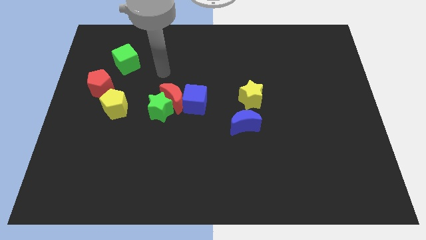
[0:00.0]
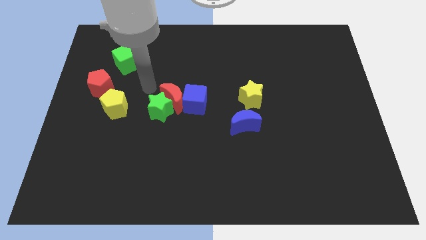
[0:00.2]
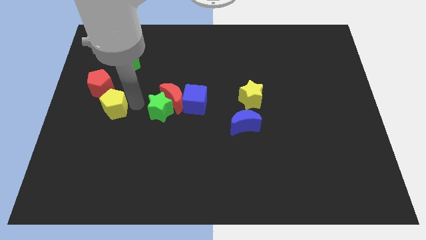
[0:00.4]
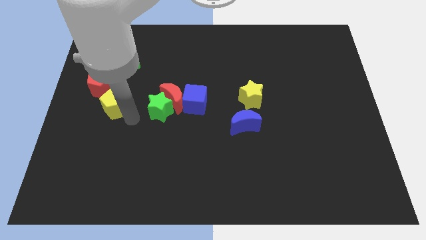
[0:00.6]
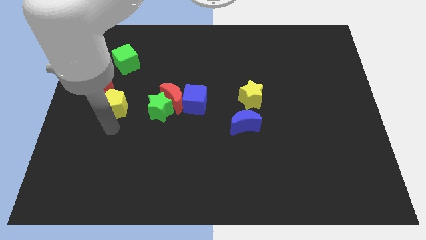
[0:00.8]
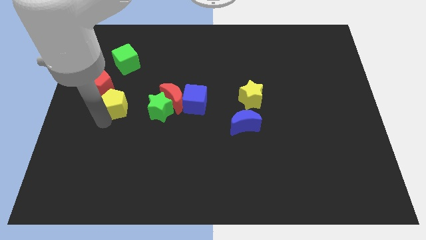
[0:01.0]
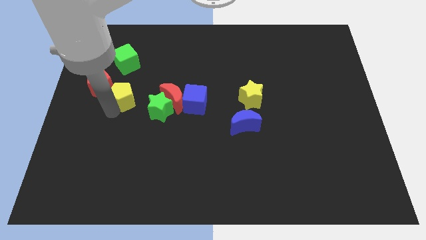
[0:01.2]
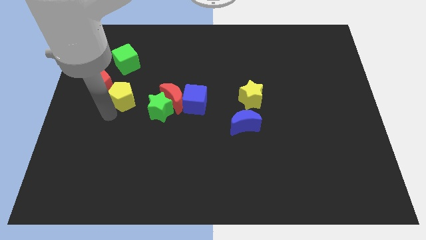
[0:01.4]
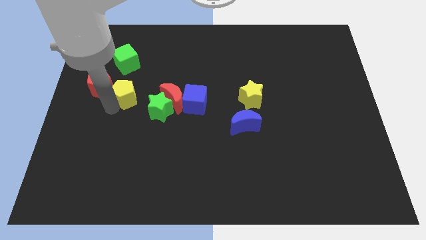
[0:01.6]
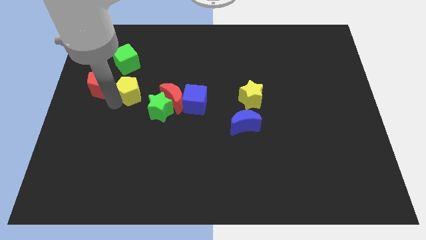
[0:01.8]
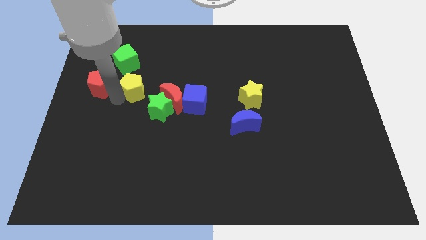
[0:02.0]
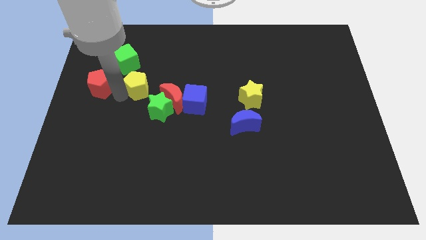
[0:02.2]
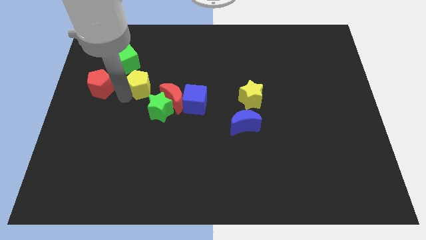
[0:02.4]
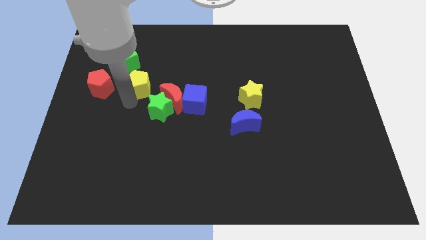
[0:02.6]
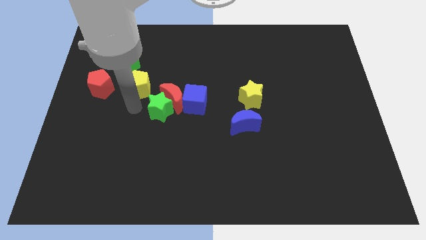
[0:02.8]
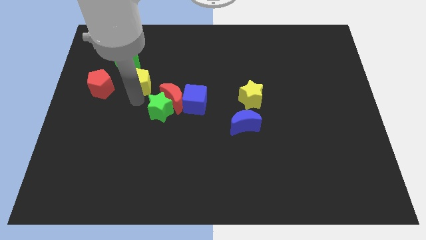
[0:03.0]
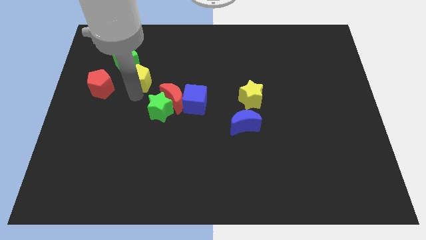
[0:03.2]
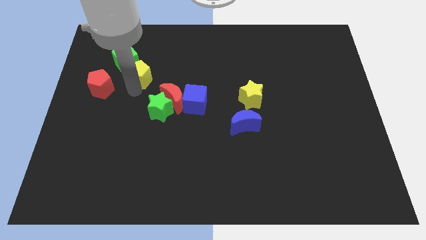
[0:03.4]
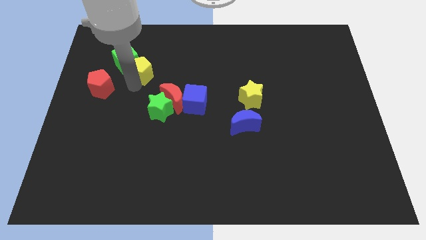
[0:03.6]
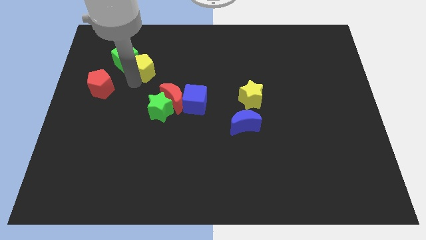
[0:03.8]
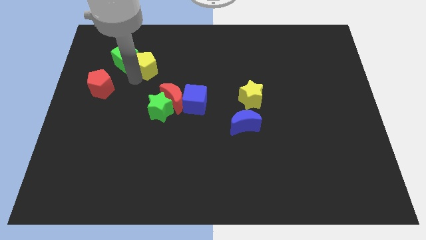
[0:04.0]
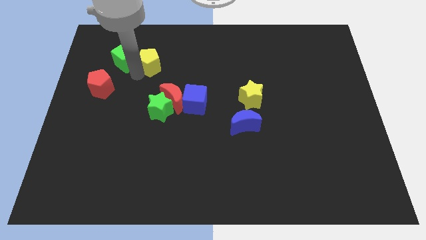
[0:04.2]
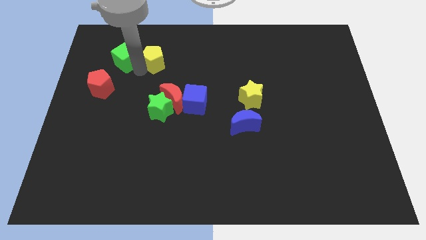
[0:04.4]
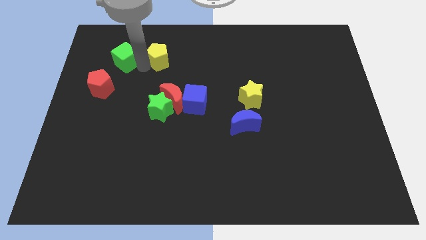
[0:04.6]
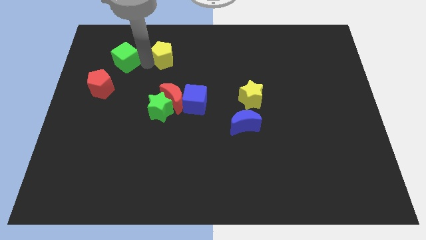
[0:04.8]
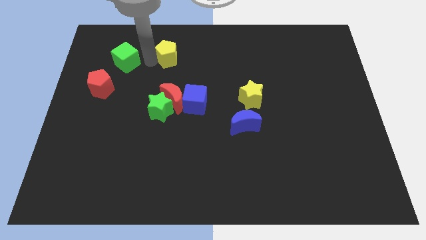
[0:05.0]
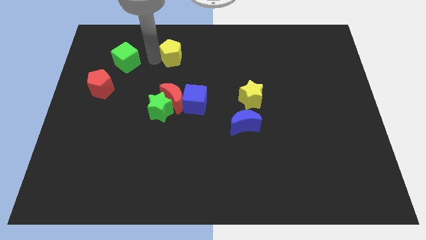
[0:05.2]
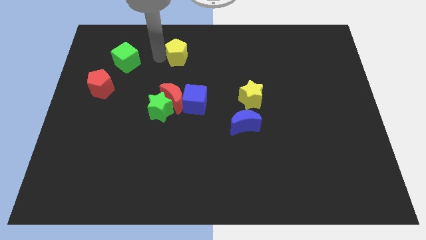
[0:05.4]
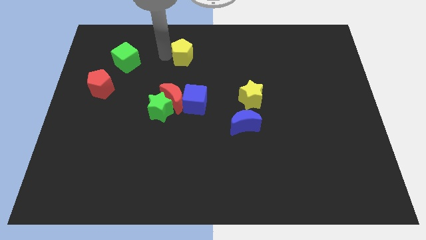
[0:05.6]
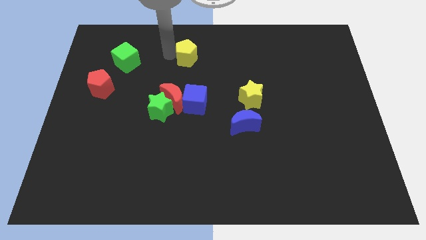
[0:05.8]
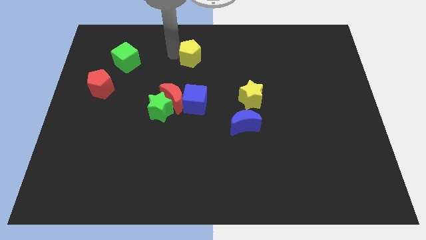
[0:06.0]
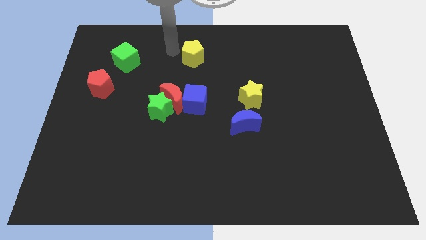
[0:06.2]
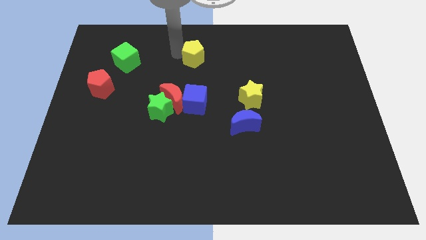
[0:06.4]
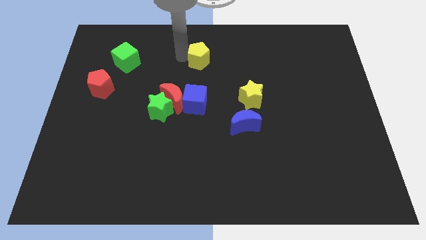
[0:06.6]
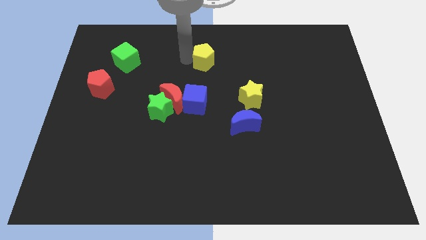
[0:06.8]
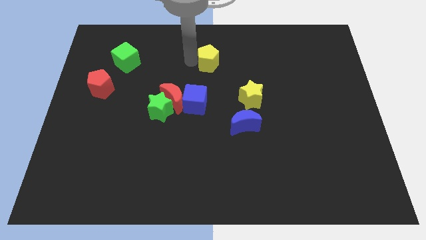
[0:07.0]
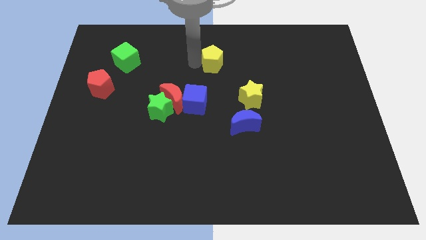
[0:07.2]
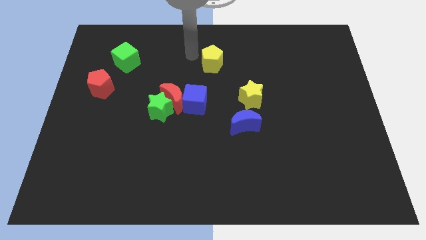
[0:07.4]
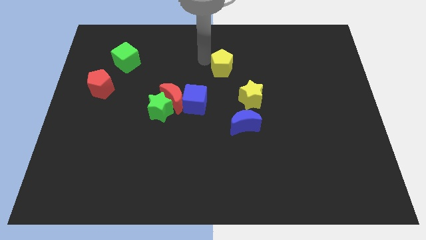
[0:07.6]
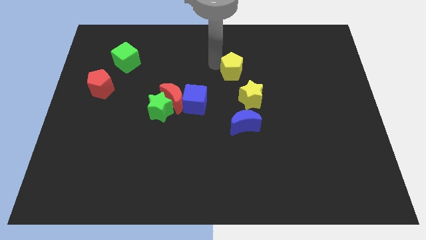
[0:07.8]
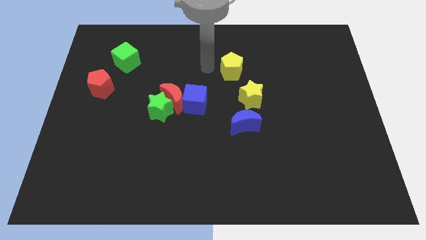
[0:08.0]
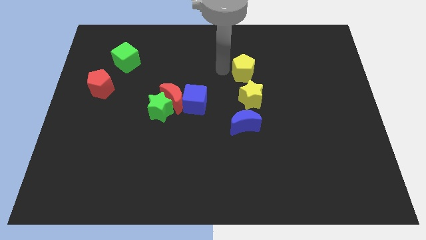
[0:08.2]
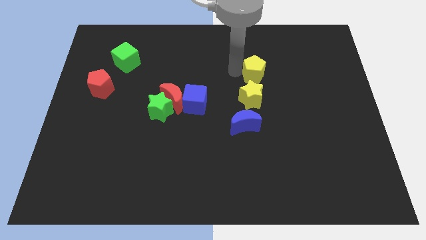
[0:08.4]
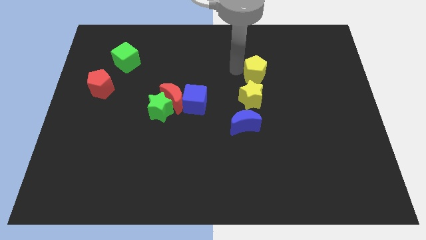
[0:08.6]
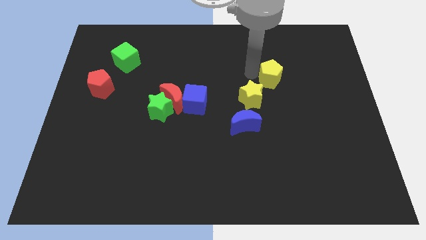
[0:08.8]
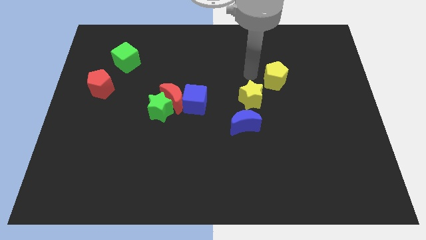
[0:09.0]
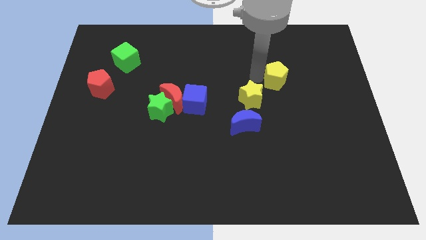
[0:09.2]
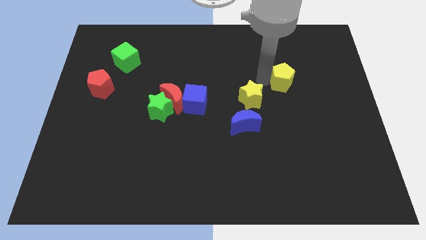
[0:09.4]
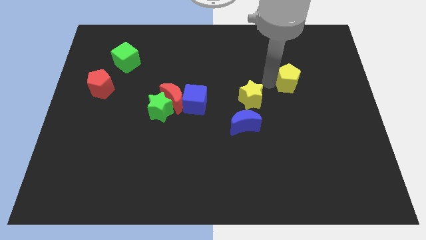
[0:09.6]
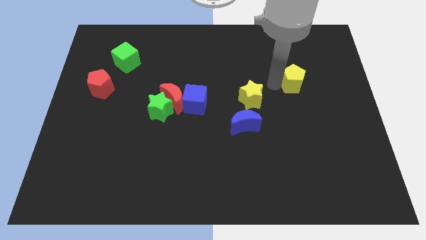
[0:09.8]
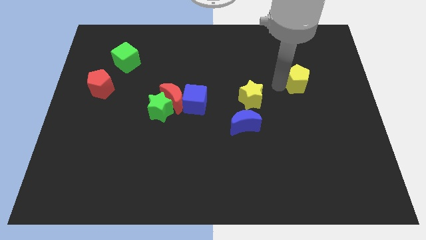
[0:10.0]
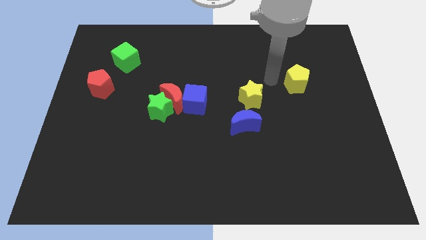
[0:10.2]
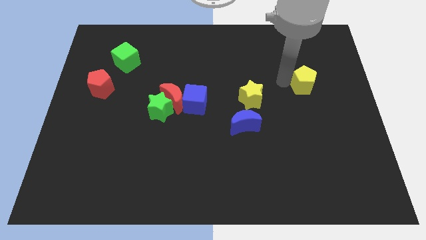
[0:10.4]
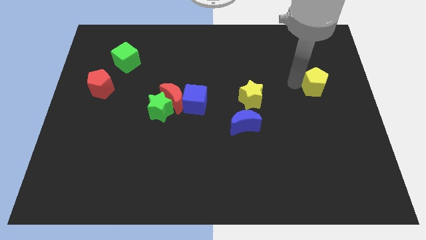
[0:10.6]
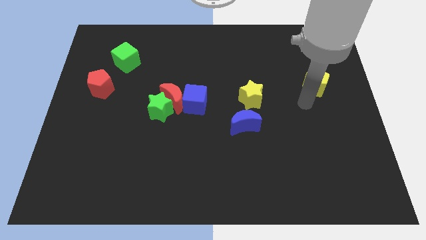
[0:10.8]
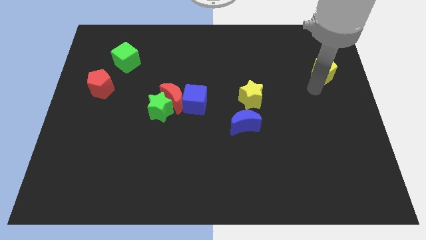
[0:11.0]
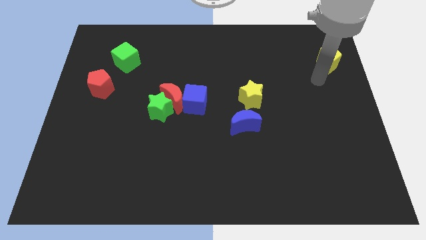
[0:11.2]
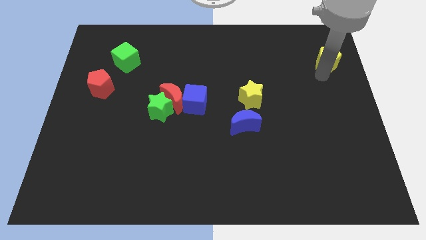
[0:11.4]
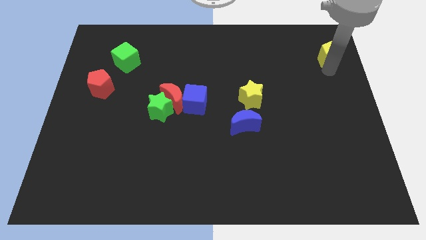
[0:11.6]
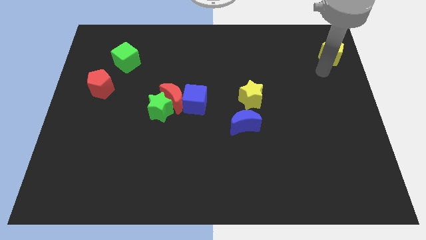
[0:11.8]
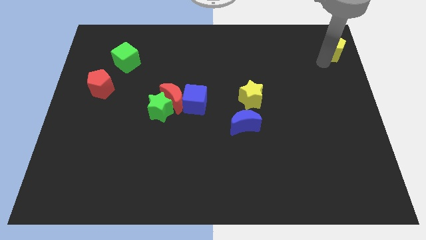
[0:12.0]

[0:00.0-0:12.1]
put the yellow pentagon to the top right corner

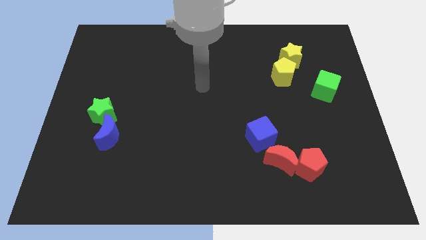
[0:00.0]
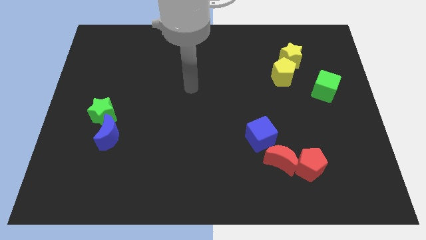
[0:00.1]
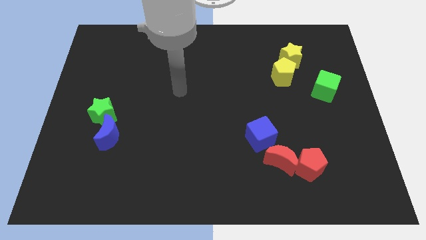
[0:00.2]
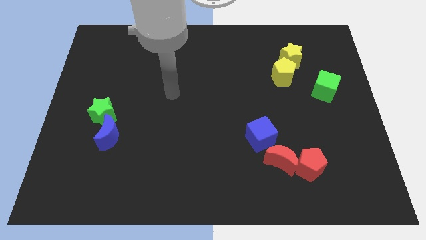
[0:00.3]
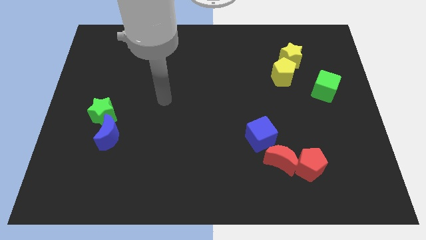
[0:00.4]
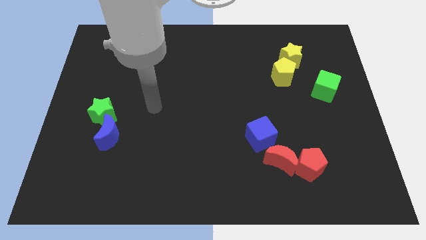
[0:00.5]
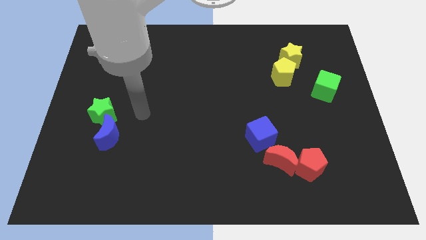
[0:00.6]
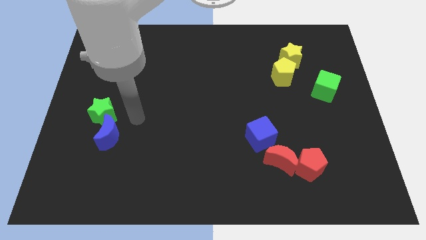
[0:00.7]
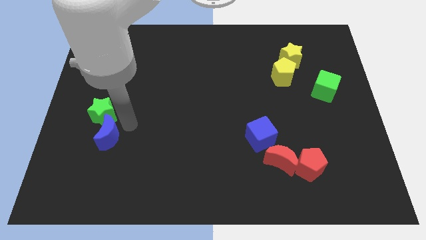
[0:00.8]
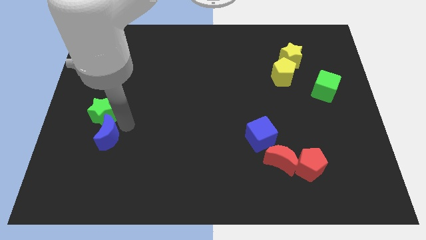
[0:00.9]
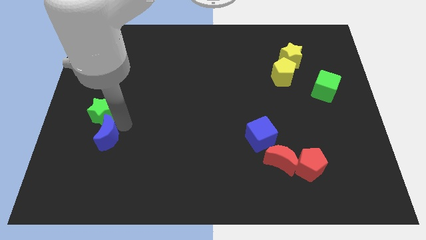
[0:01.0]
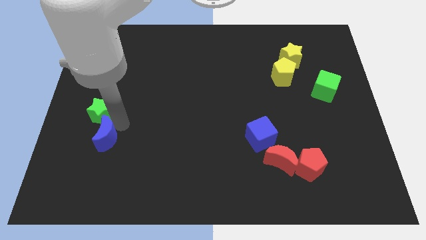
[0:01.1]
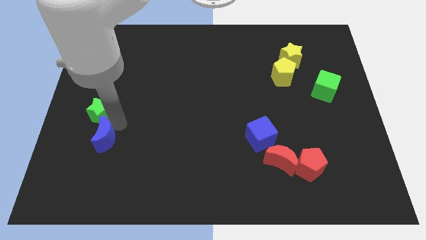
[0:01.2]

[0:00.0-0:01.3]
slide the green star to the left side
